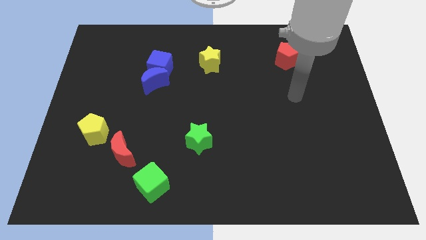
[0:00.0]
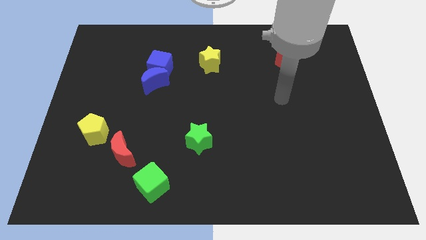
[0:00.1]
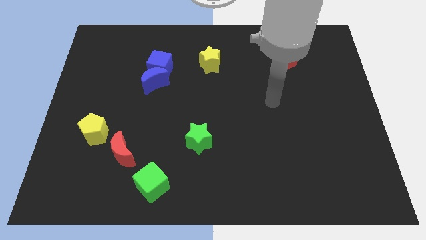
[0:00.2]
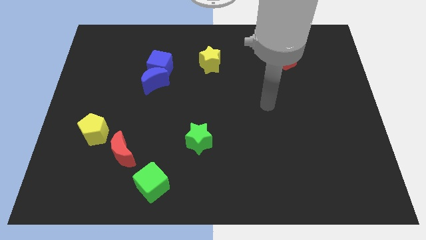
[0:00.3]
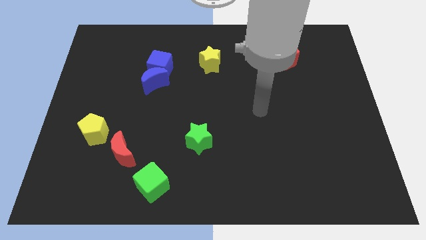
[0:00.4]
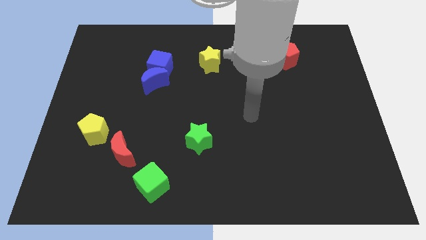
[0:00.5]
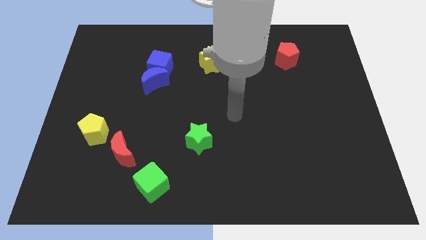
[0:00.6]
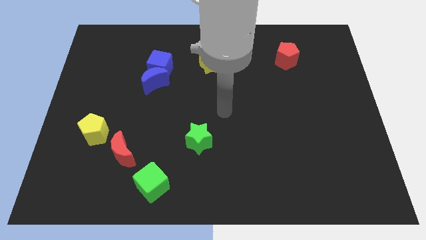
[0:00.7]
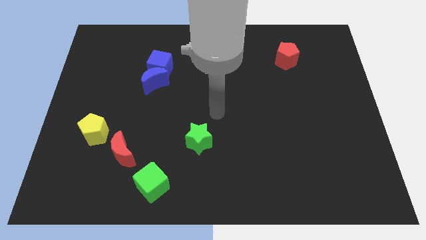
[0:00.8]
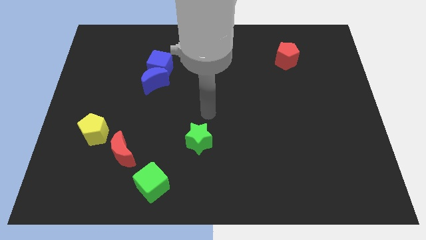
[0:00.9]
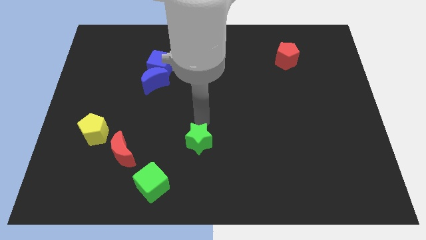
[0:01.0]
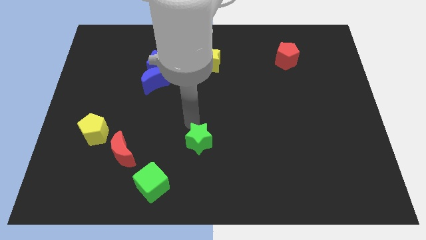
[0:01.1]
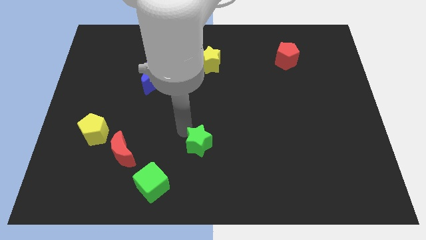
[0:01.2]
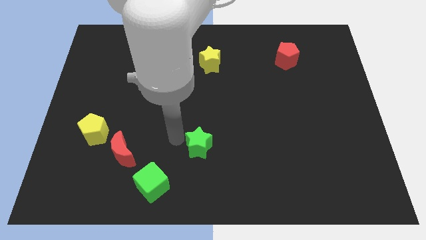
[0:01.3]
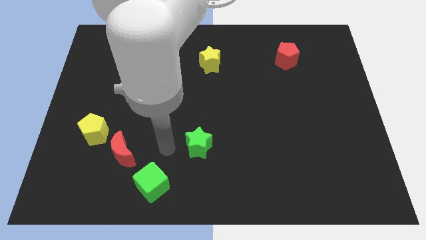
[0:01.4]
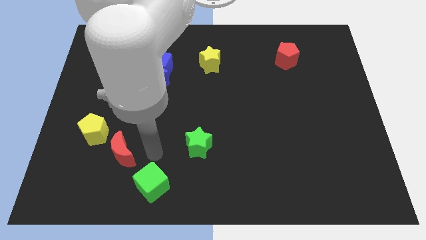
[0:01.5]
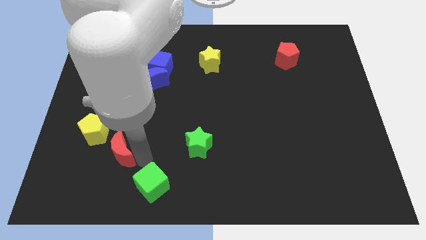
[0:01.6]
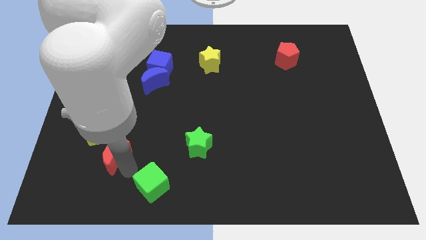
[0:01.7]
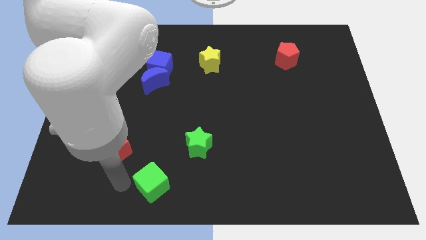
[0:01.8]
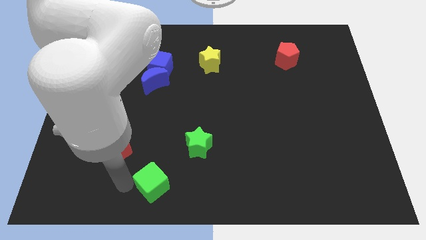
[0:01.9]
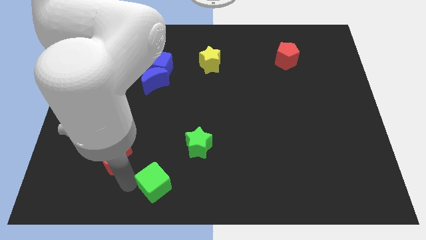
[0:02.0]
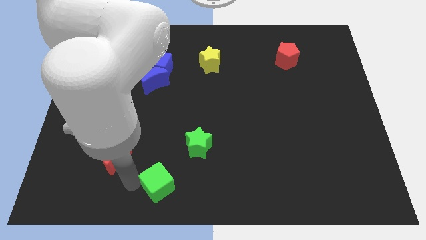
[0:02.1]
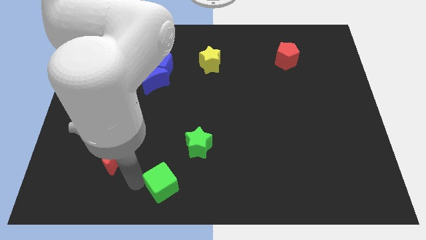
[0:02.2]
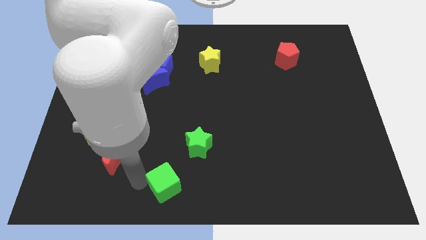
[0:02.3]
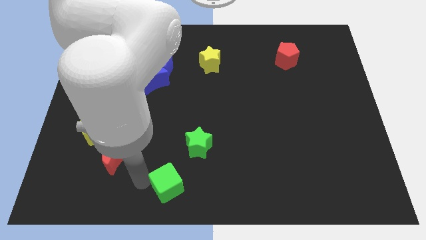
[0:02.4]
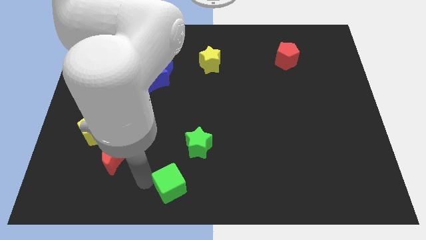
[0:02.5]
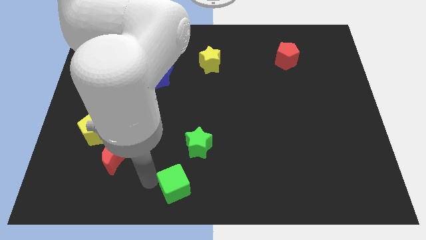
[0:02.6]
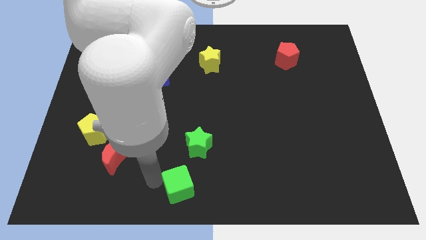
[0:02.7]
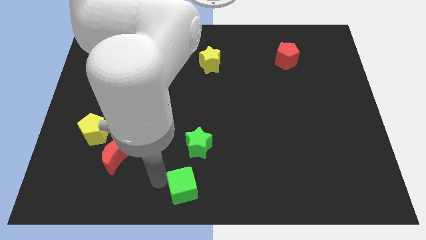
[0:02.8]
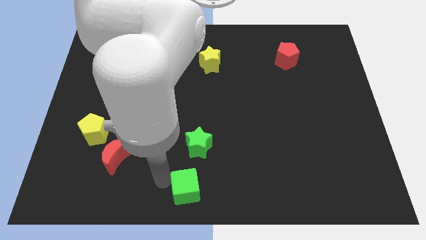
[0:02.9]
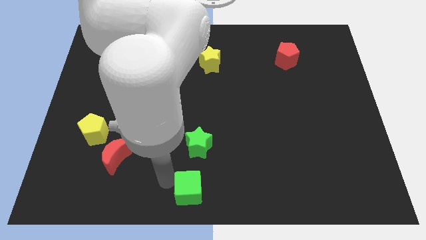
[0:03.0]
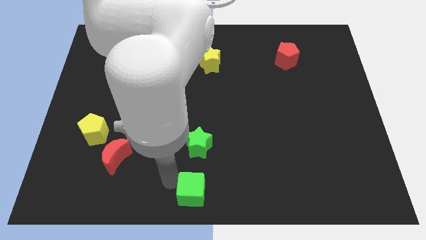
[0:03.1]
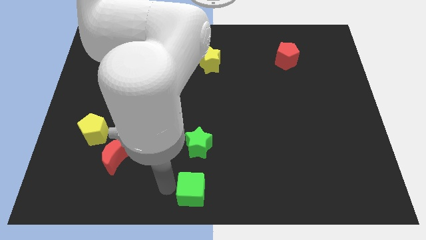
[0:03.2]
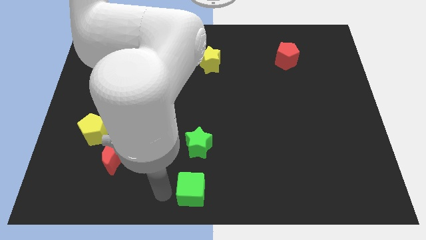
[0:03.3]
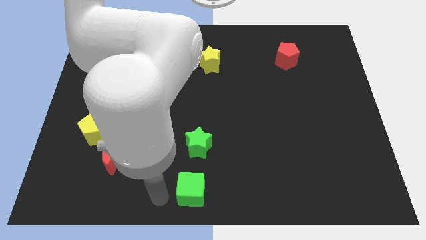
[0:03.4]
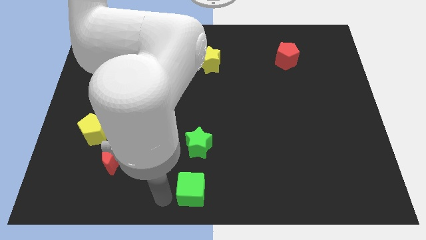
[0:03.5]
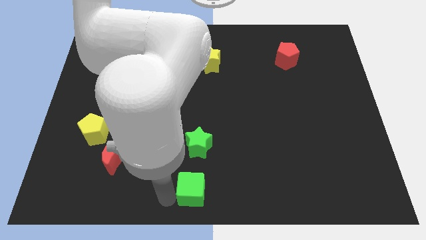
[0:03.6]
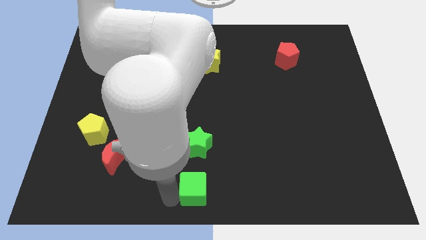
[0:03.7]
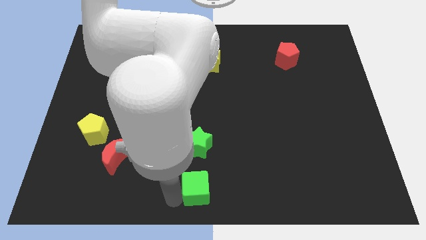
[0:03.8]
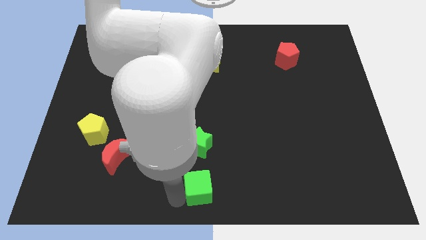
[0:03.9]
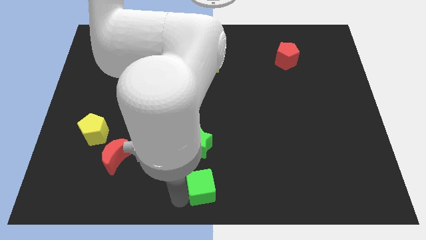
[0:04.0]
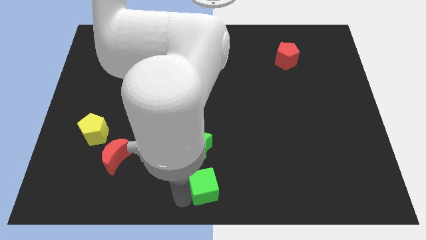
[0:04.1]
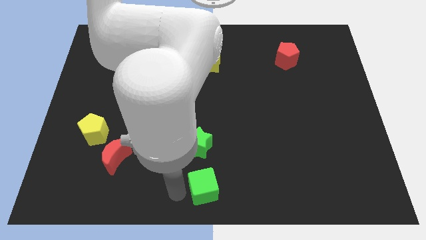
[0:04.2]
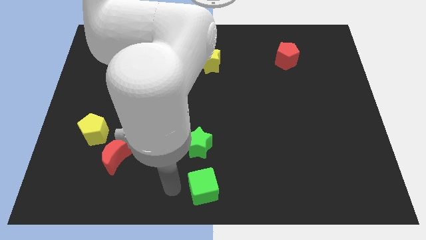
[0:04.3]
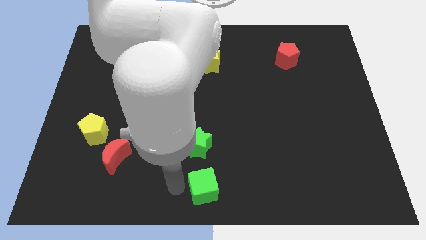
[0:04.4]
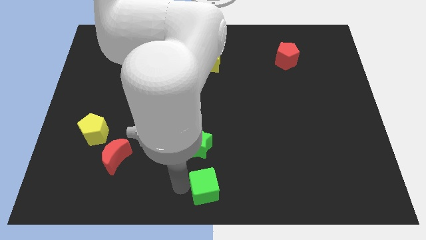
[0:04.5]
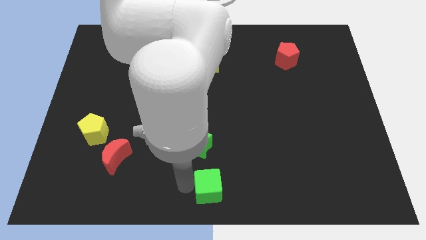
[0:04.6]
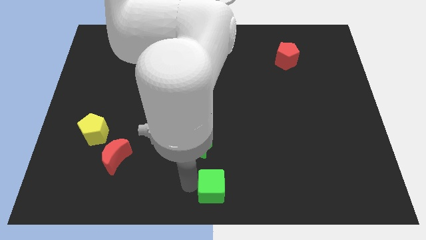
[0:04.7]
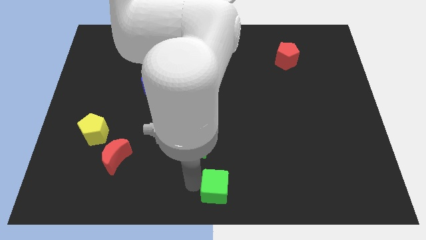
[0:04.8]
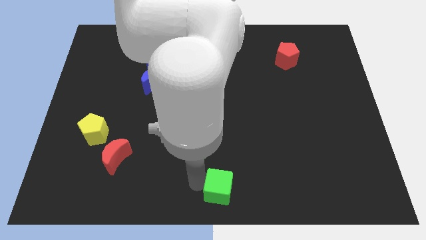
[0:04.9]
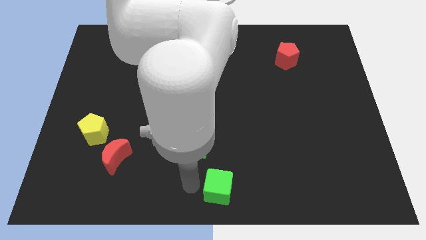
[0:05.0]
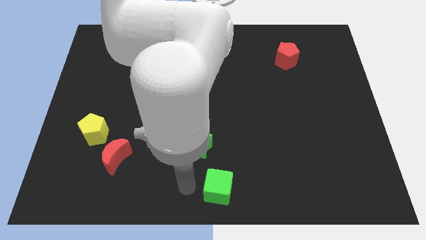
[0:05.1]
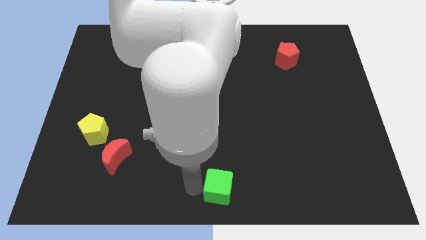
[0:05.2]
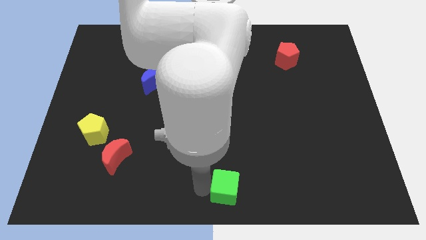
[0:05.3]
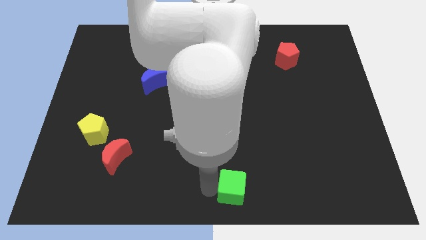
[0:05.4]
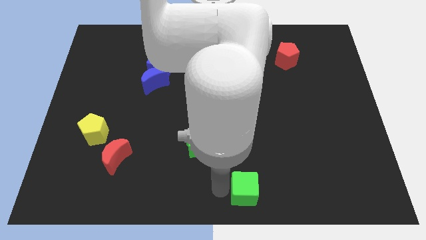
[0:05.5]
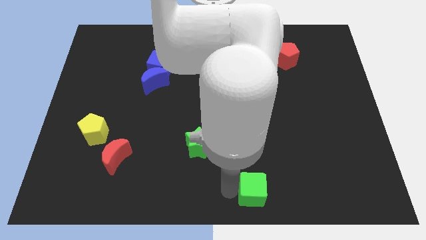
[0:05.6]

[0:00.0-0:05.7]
slide the green cube to the right

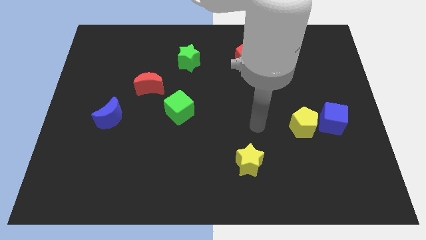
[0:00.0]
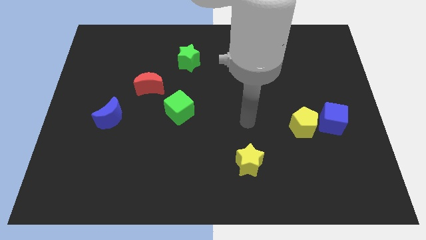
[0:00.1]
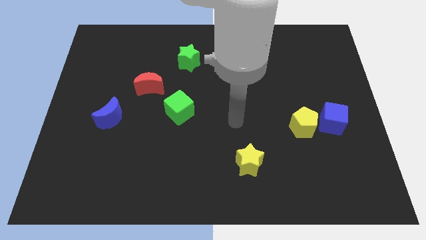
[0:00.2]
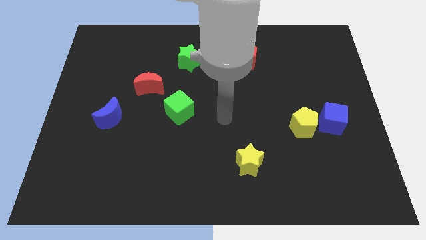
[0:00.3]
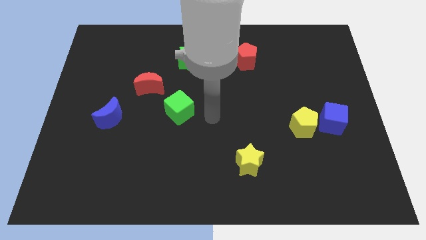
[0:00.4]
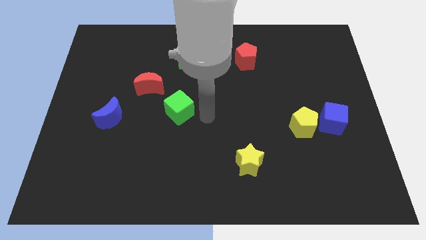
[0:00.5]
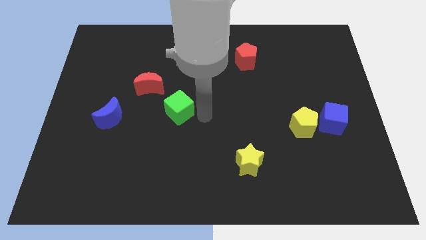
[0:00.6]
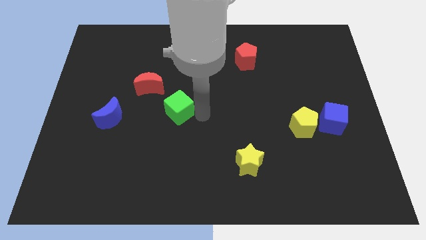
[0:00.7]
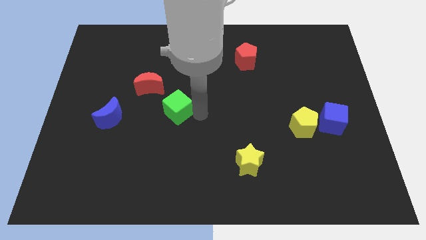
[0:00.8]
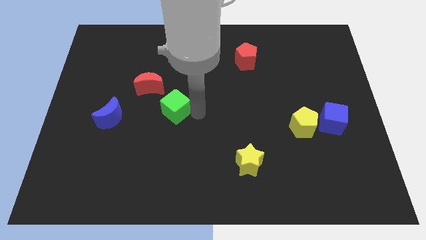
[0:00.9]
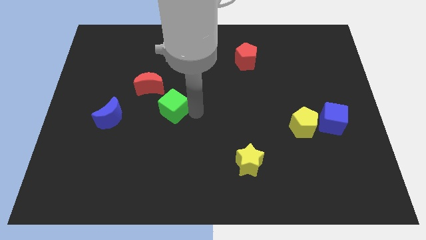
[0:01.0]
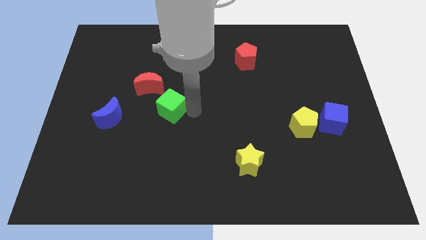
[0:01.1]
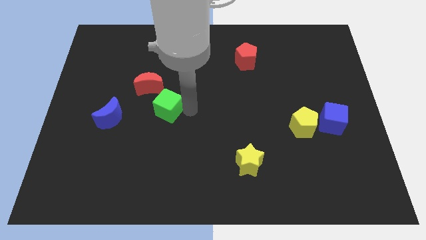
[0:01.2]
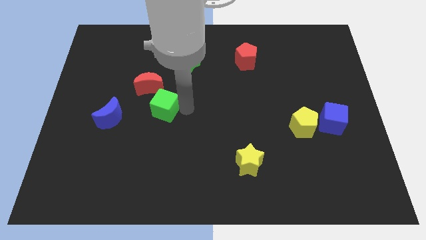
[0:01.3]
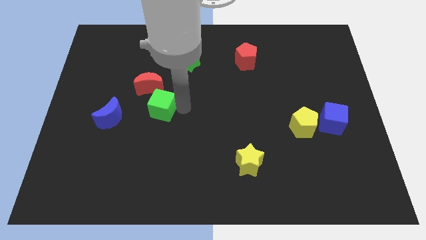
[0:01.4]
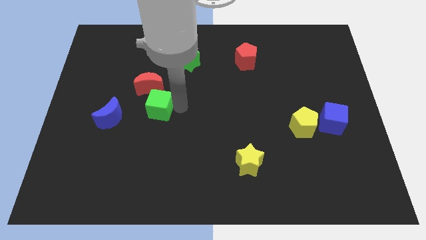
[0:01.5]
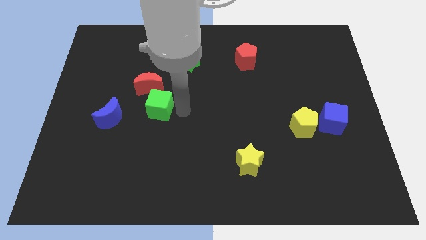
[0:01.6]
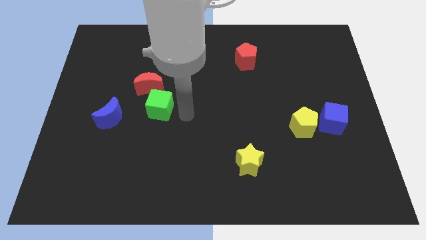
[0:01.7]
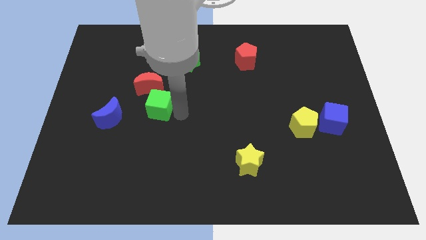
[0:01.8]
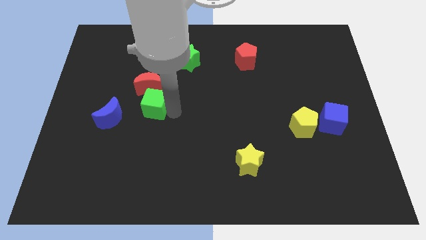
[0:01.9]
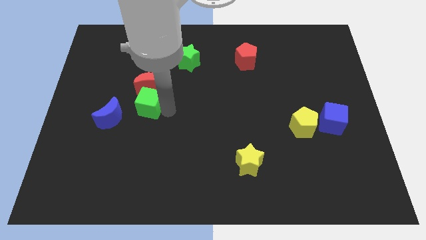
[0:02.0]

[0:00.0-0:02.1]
slightly move the green cube left

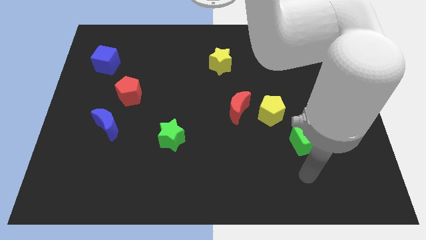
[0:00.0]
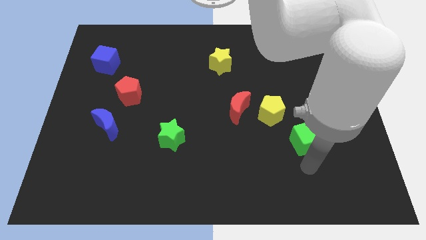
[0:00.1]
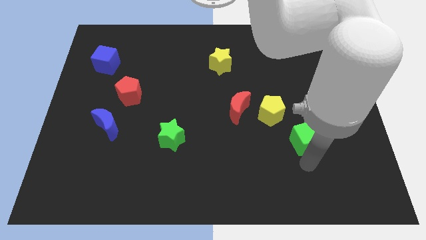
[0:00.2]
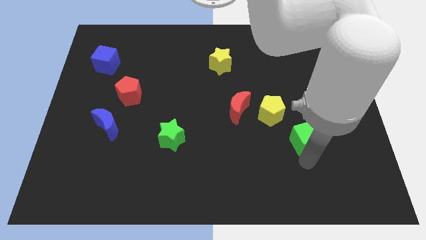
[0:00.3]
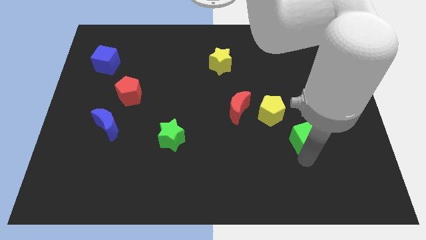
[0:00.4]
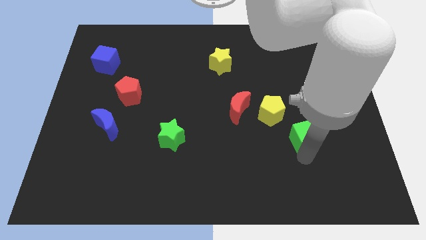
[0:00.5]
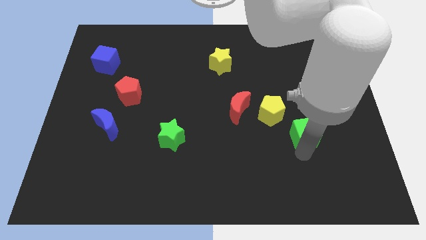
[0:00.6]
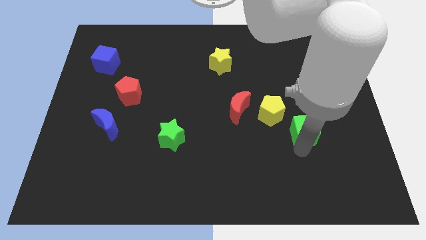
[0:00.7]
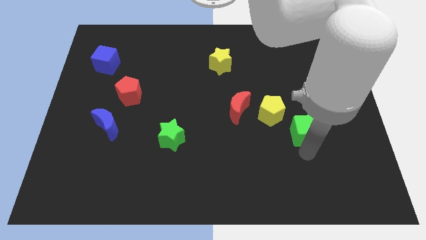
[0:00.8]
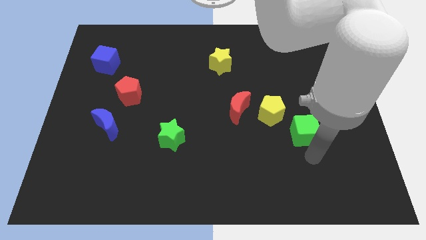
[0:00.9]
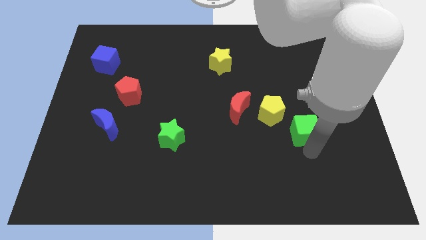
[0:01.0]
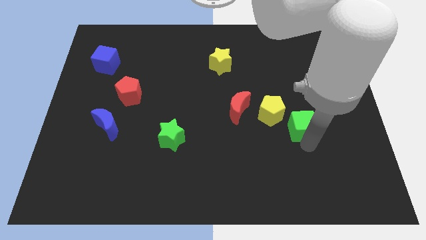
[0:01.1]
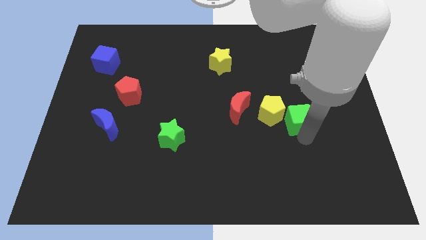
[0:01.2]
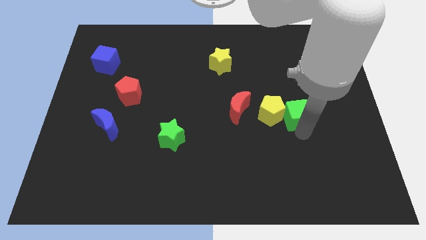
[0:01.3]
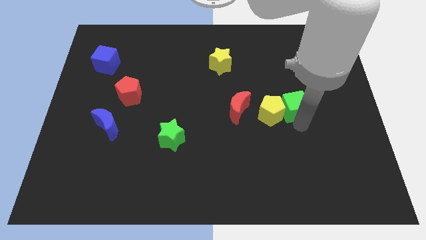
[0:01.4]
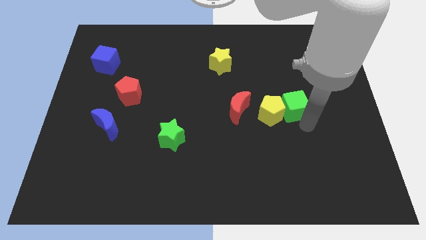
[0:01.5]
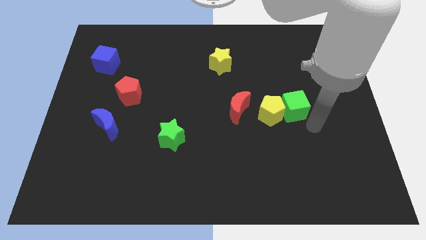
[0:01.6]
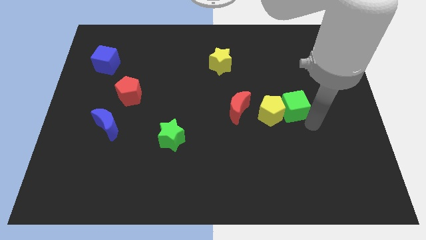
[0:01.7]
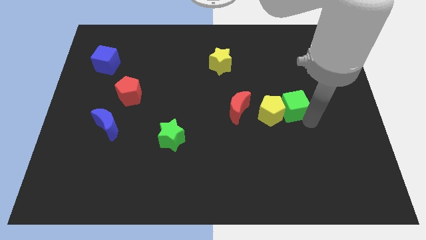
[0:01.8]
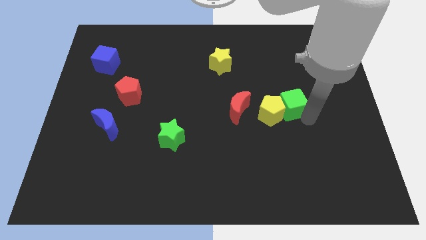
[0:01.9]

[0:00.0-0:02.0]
slightly push the green cube upwards and to the left
